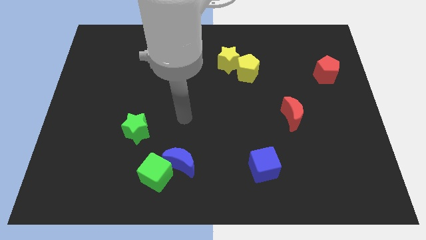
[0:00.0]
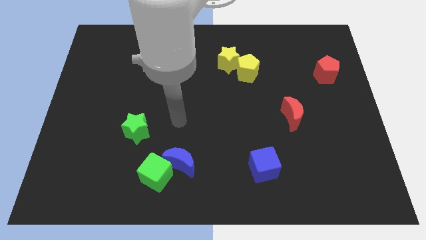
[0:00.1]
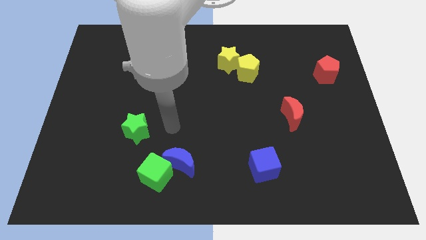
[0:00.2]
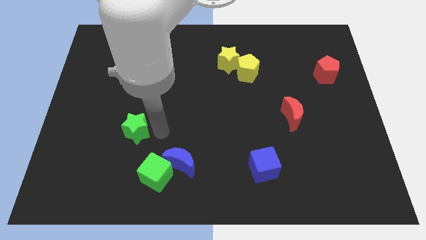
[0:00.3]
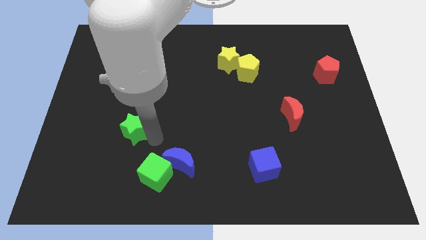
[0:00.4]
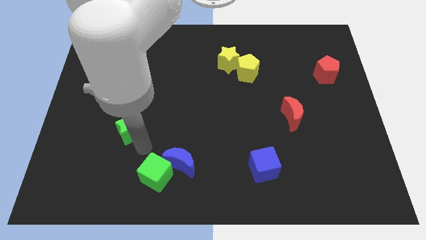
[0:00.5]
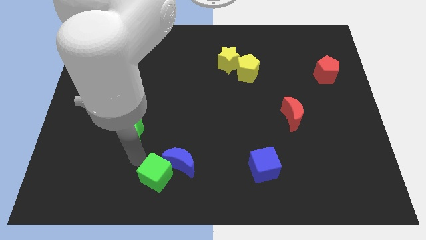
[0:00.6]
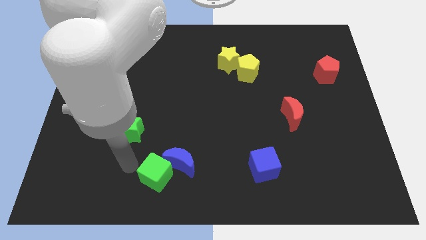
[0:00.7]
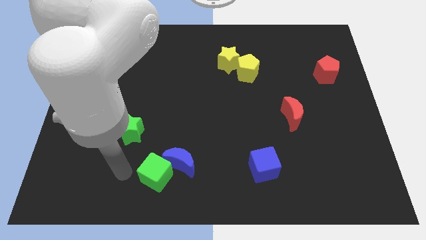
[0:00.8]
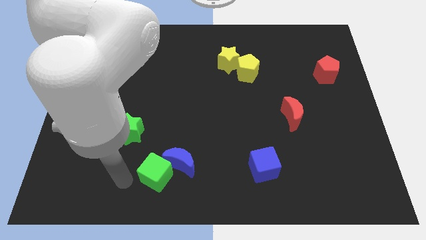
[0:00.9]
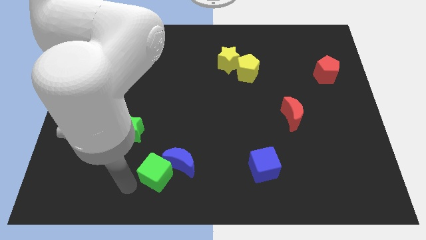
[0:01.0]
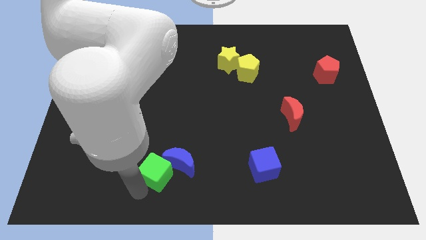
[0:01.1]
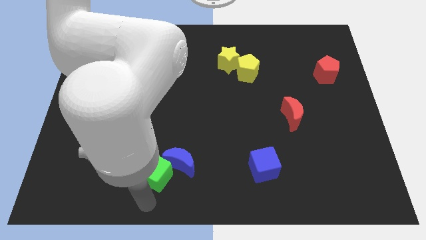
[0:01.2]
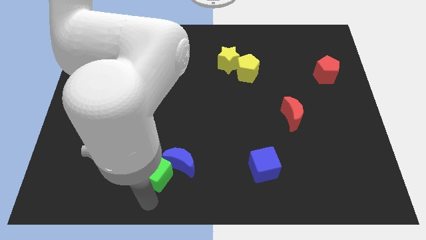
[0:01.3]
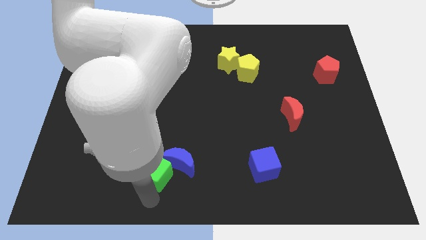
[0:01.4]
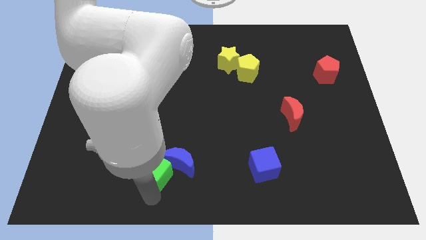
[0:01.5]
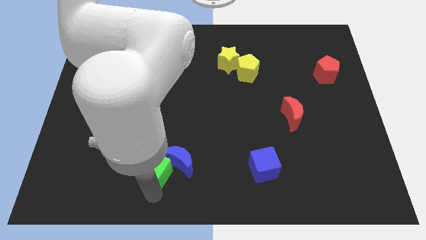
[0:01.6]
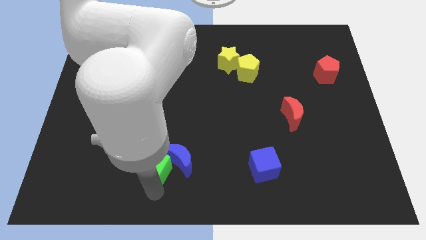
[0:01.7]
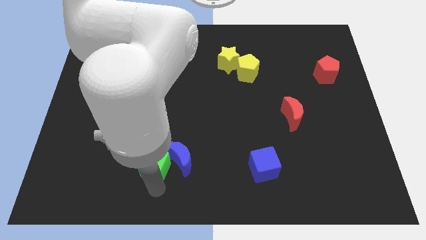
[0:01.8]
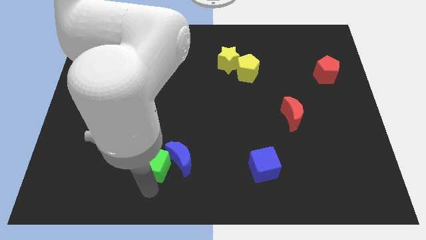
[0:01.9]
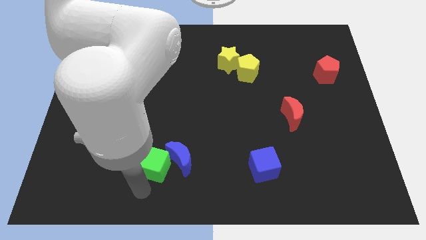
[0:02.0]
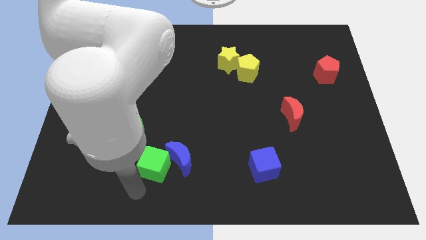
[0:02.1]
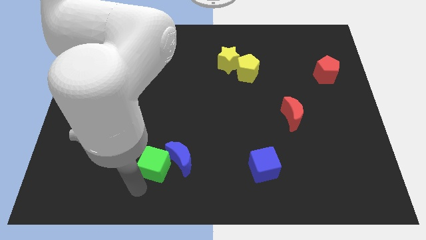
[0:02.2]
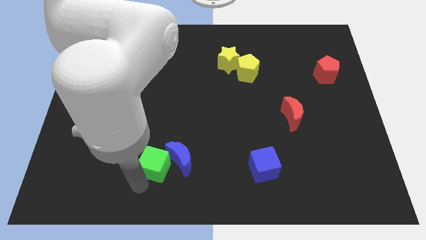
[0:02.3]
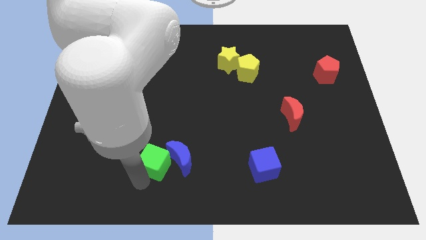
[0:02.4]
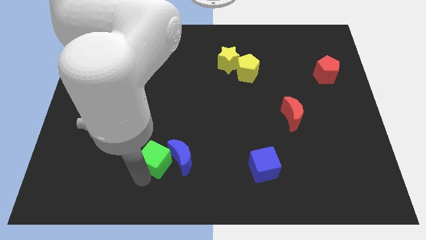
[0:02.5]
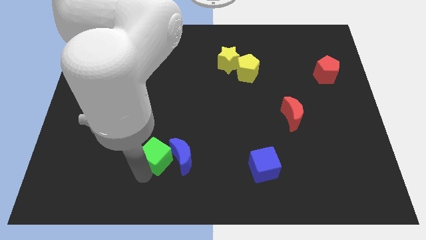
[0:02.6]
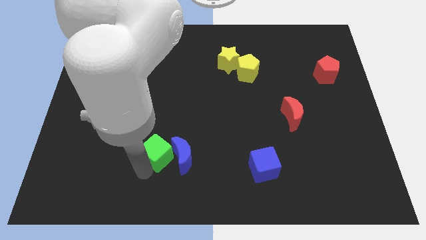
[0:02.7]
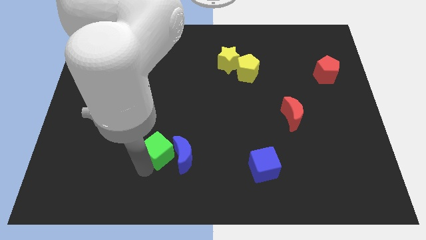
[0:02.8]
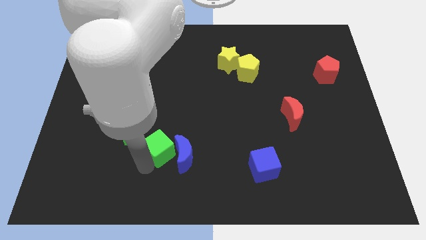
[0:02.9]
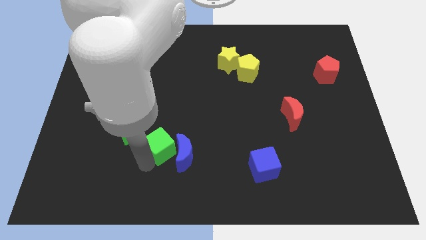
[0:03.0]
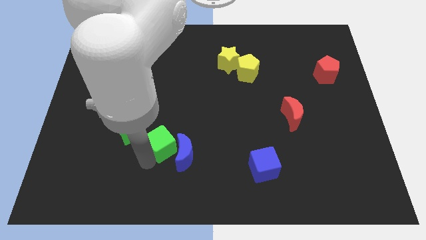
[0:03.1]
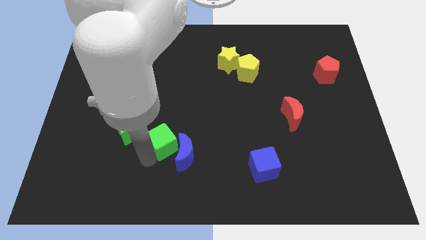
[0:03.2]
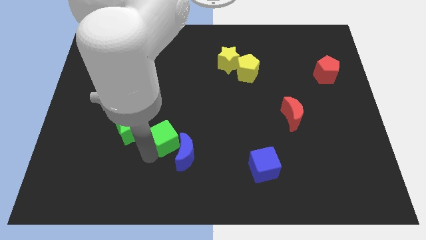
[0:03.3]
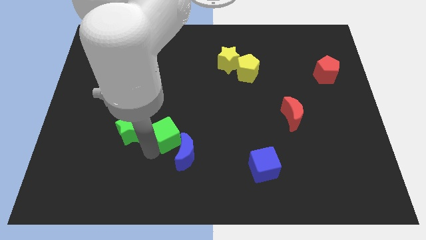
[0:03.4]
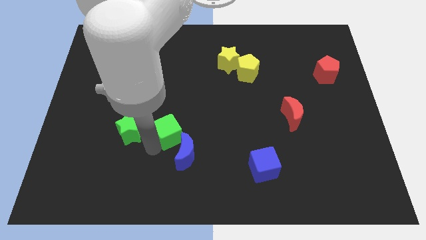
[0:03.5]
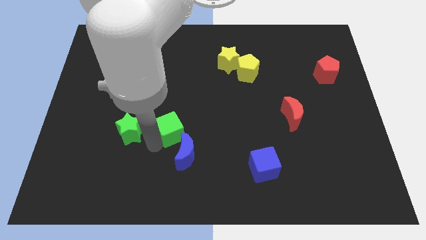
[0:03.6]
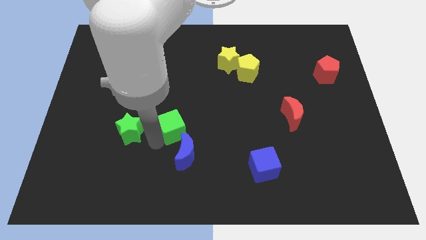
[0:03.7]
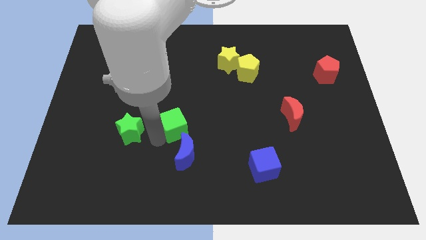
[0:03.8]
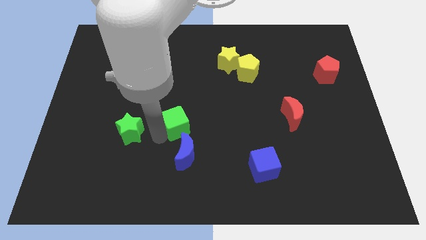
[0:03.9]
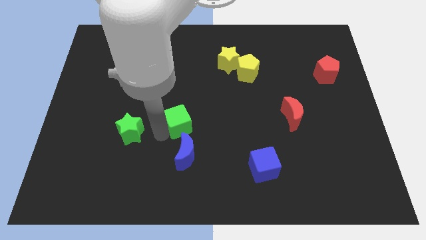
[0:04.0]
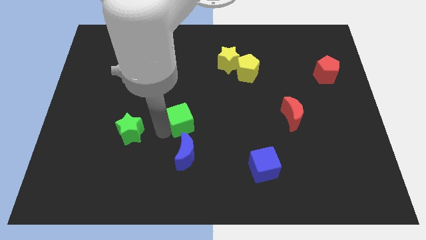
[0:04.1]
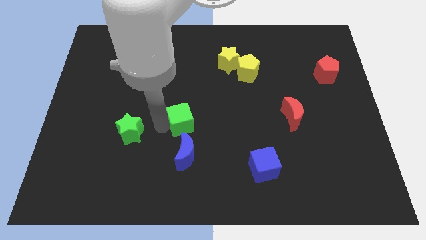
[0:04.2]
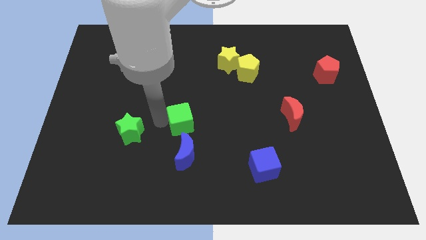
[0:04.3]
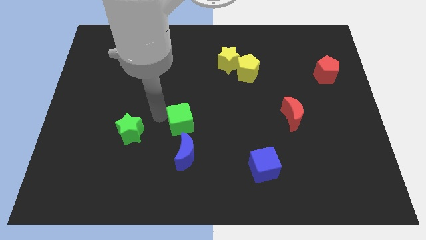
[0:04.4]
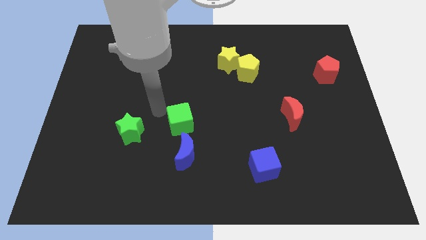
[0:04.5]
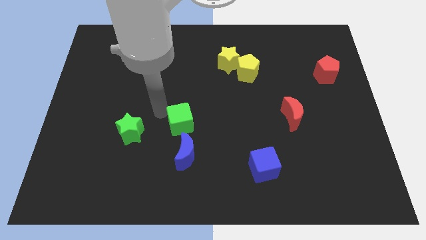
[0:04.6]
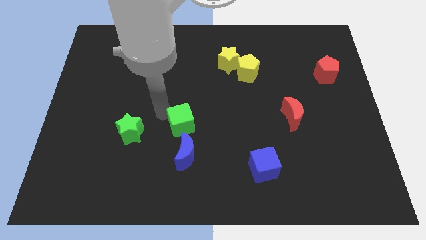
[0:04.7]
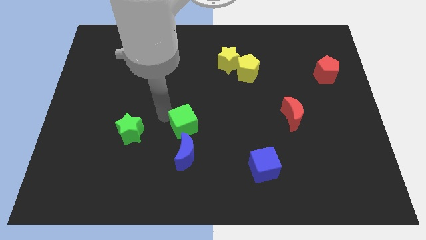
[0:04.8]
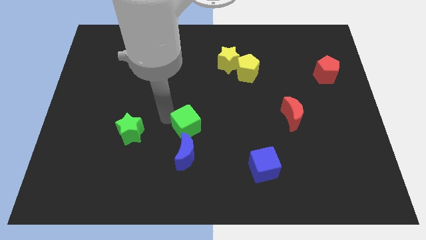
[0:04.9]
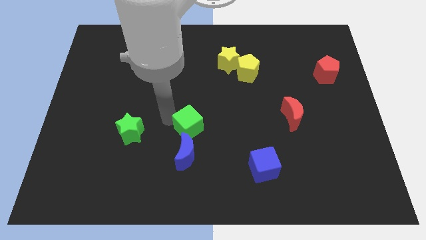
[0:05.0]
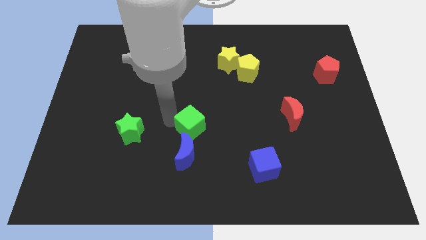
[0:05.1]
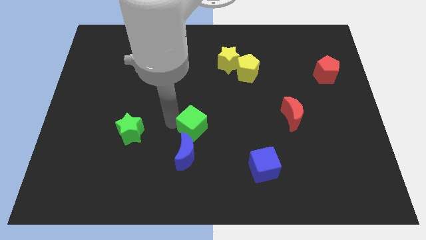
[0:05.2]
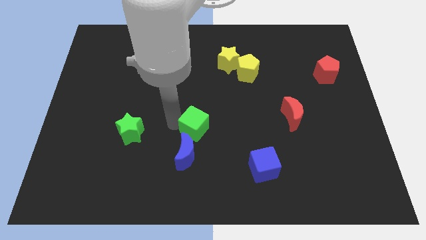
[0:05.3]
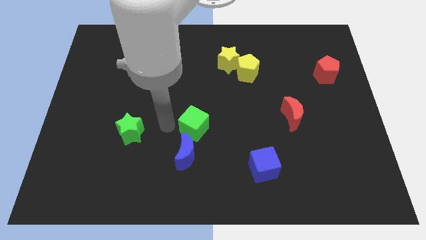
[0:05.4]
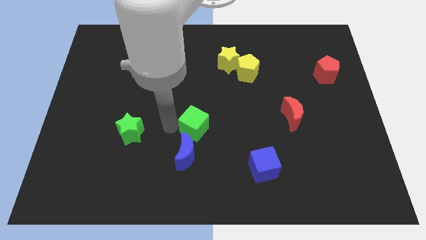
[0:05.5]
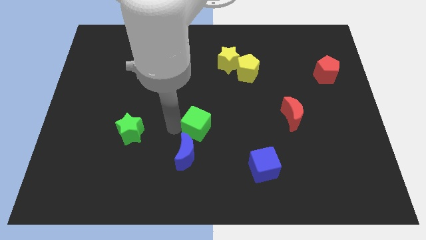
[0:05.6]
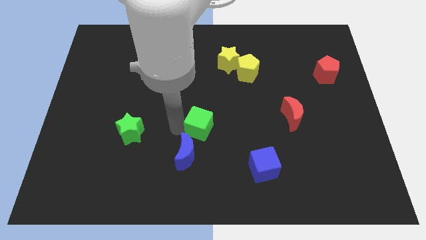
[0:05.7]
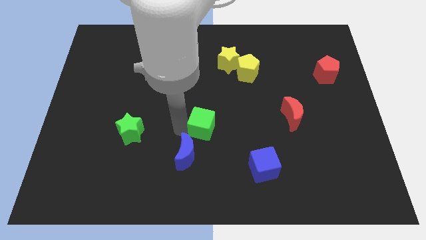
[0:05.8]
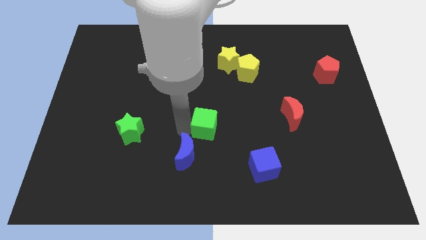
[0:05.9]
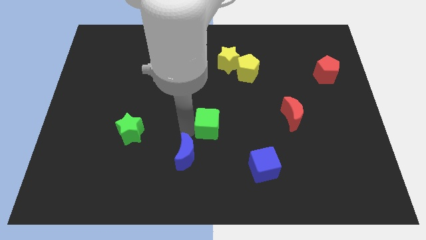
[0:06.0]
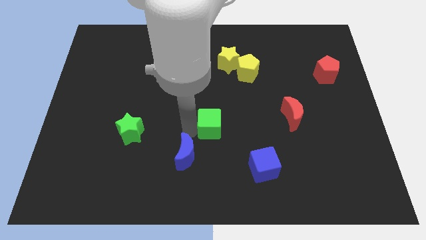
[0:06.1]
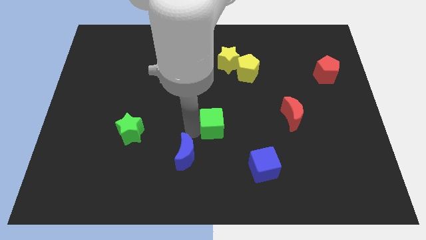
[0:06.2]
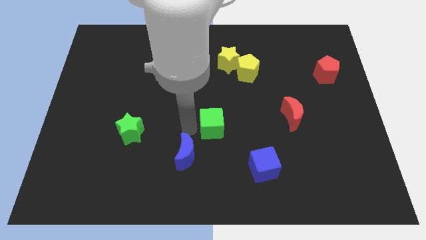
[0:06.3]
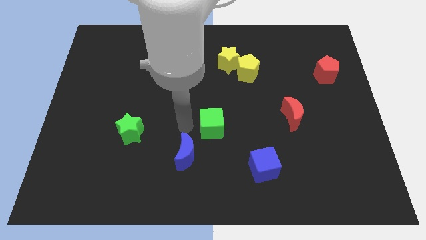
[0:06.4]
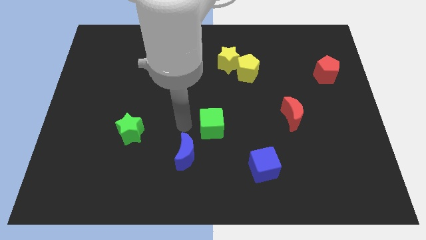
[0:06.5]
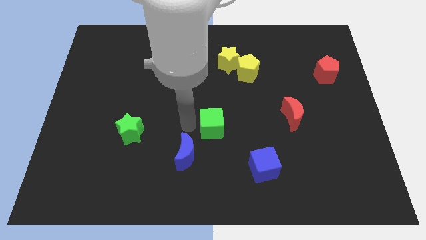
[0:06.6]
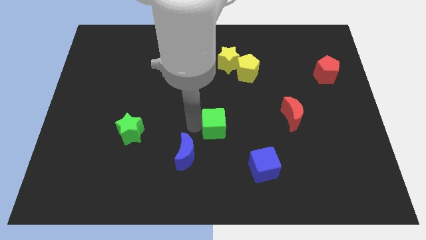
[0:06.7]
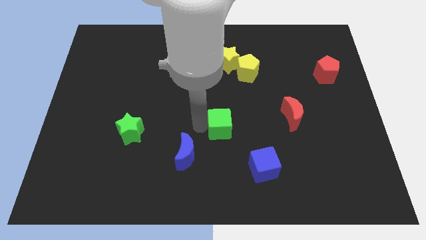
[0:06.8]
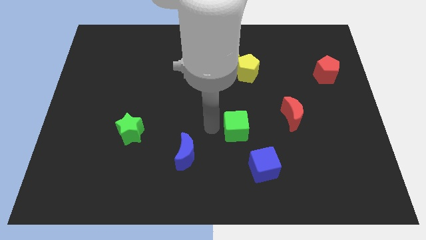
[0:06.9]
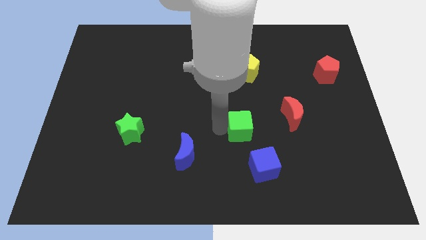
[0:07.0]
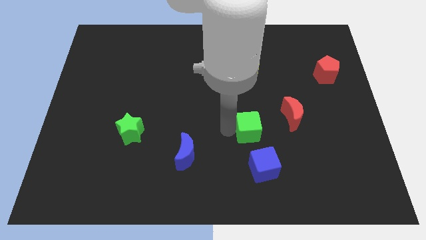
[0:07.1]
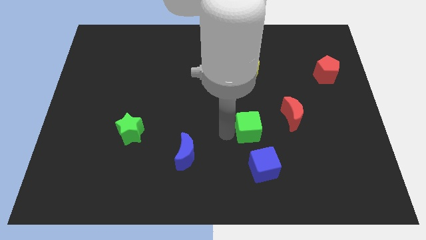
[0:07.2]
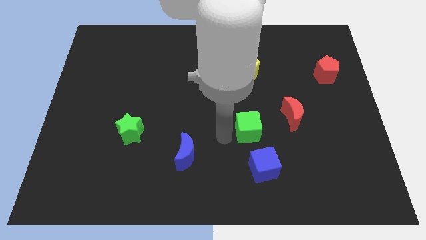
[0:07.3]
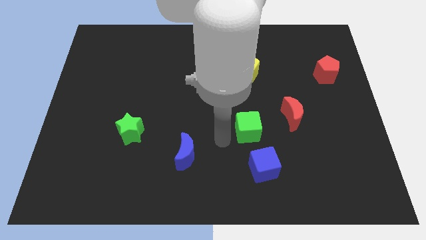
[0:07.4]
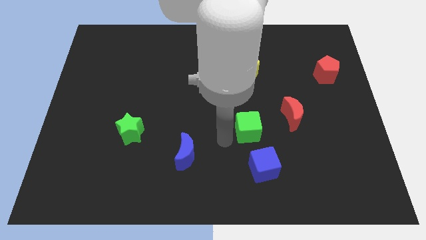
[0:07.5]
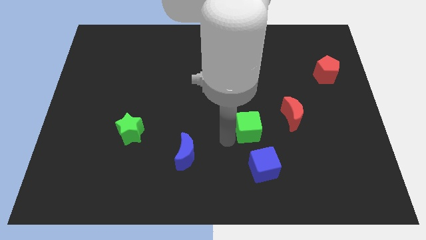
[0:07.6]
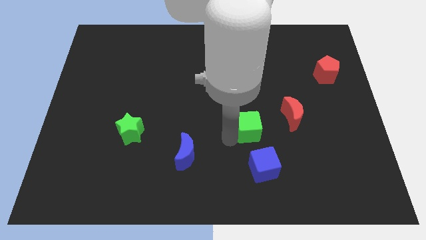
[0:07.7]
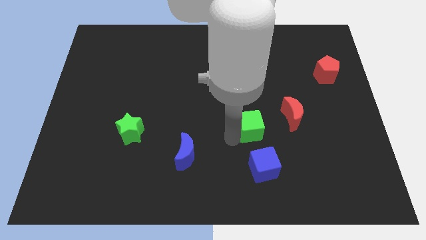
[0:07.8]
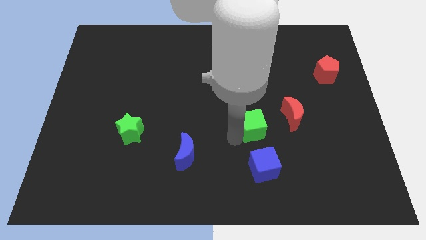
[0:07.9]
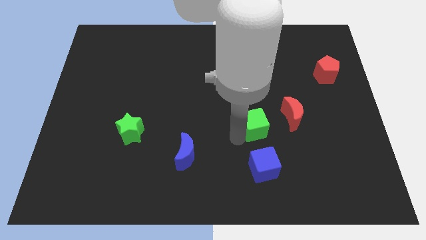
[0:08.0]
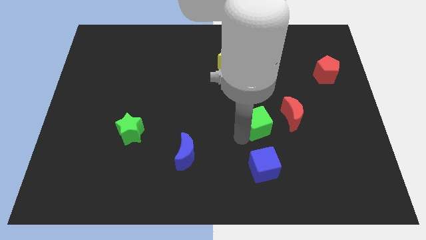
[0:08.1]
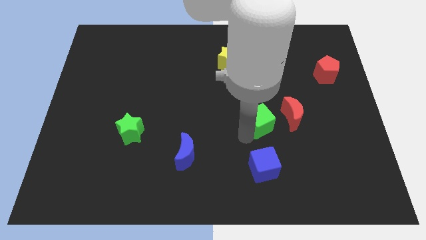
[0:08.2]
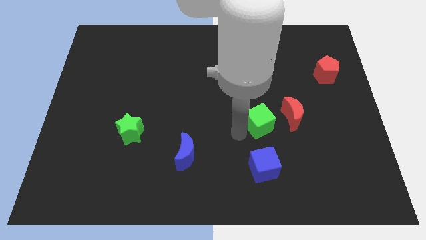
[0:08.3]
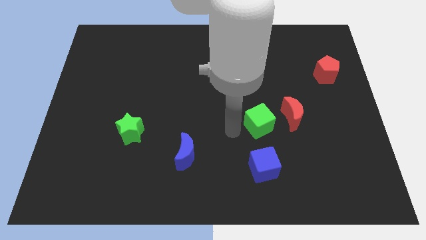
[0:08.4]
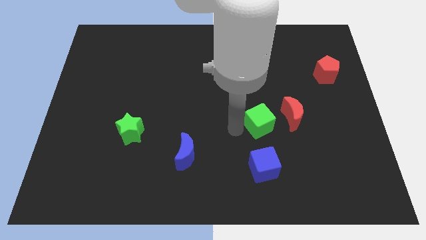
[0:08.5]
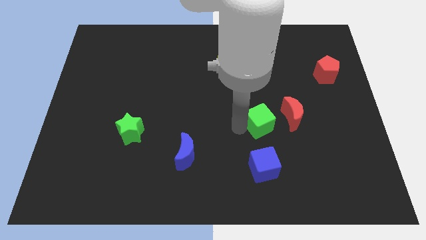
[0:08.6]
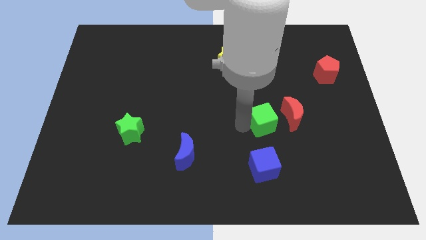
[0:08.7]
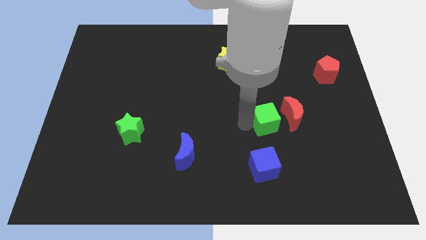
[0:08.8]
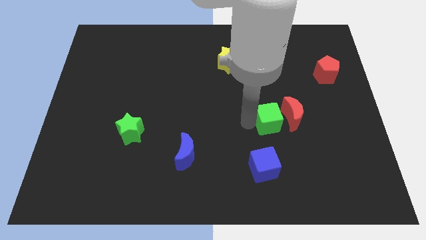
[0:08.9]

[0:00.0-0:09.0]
put the green cube next to the red moon
